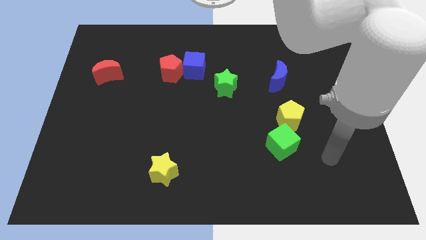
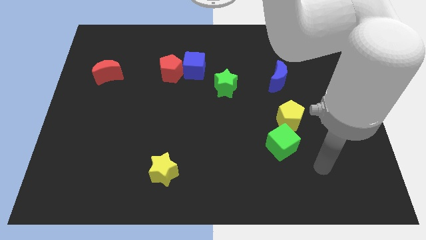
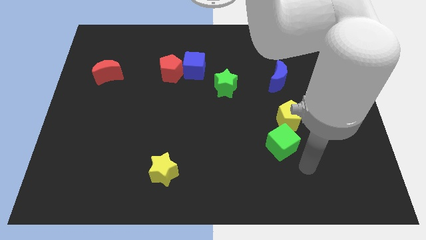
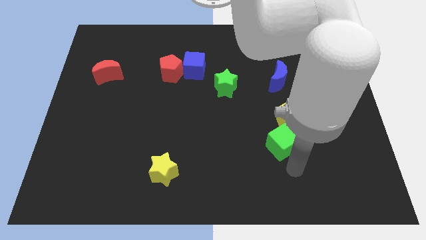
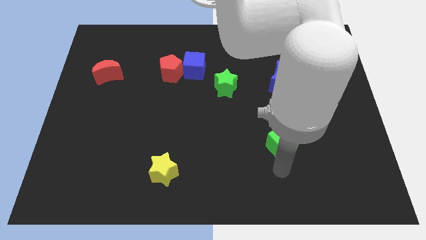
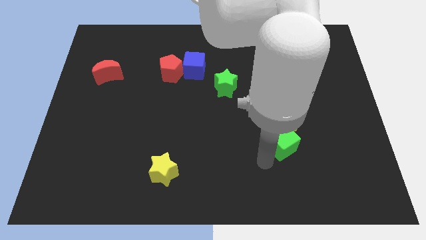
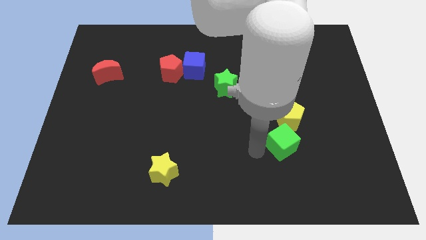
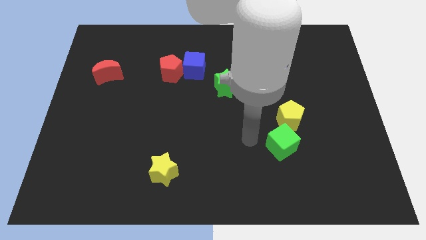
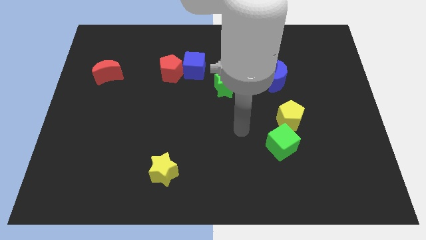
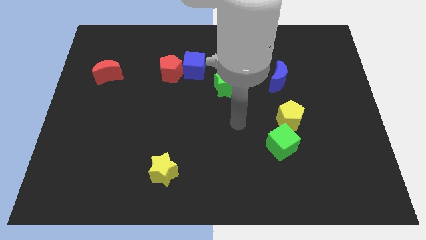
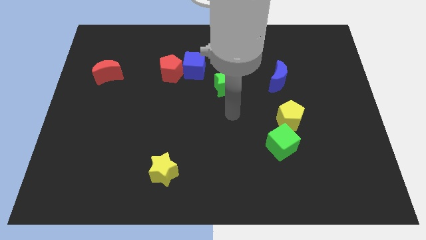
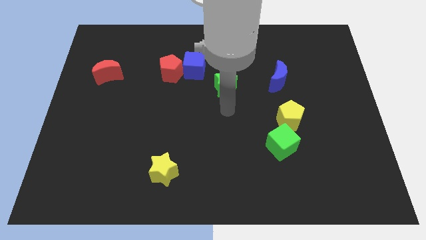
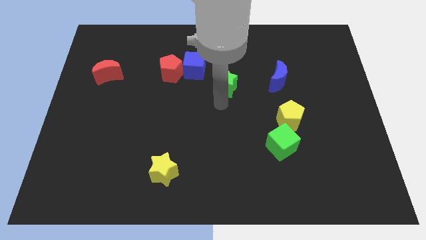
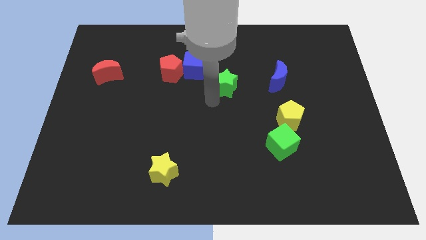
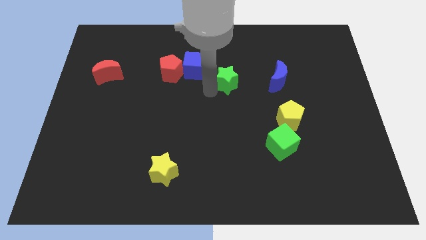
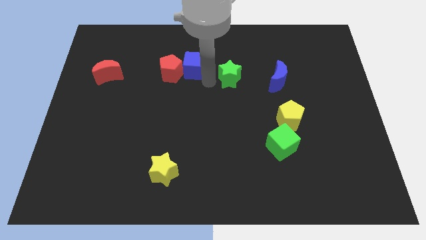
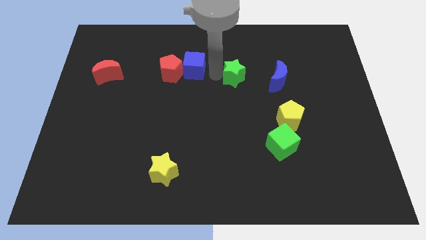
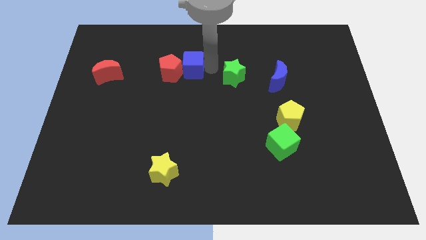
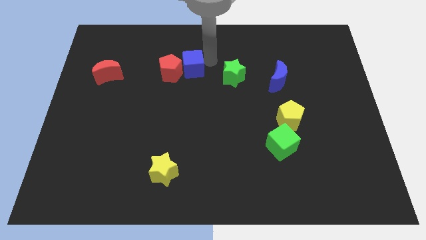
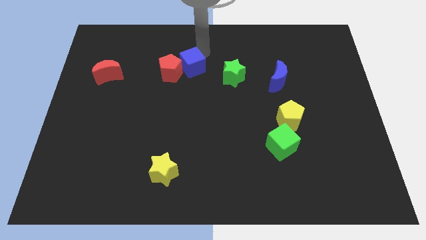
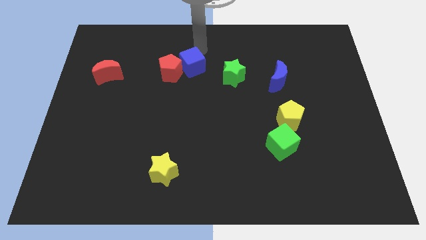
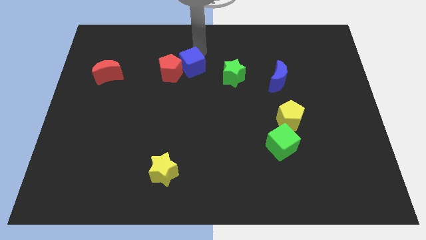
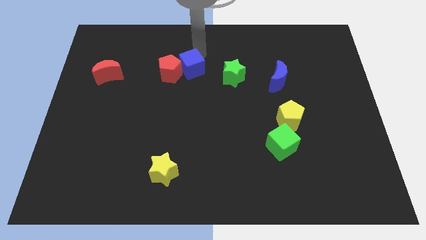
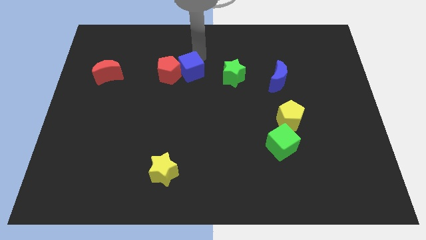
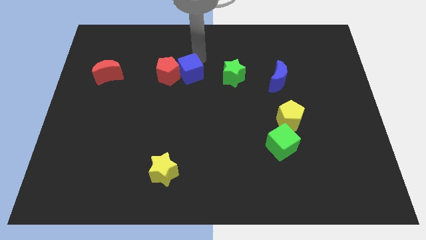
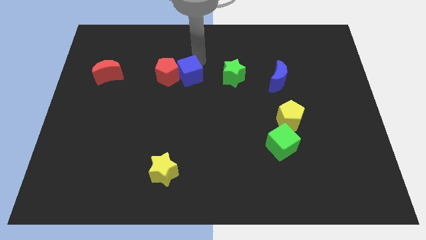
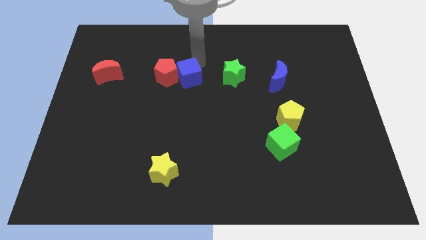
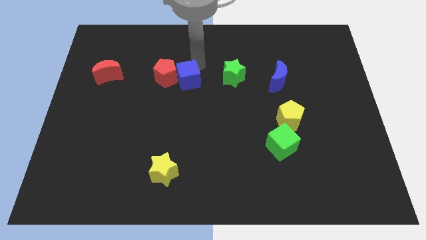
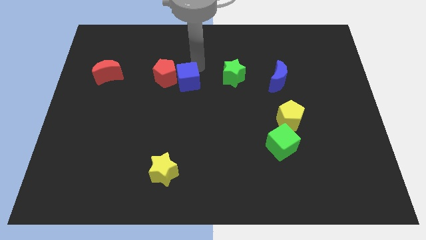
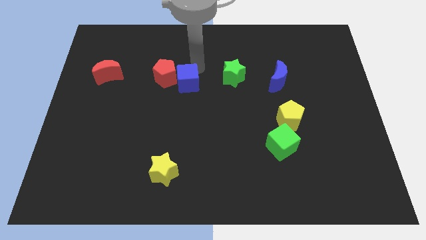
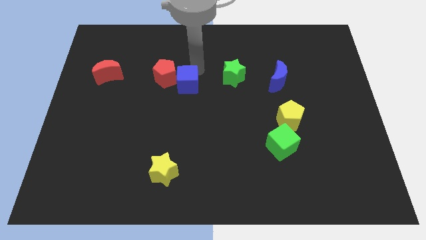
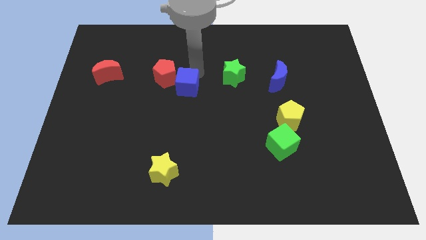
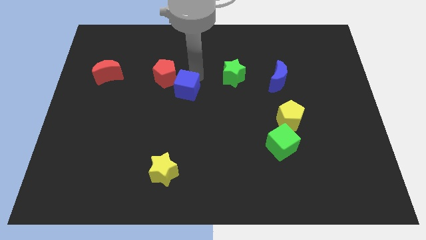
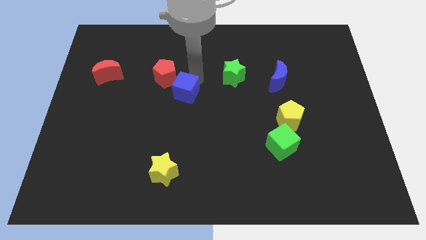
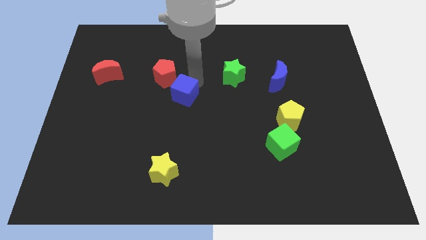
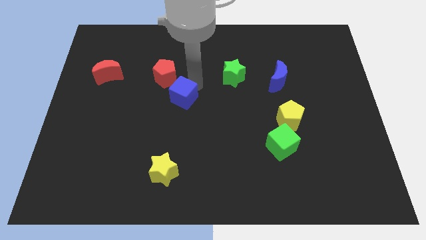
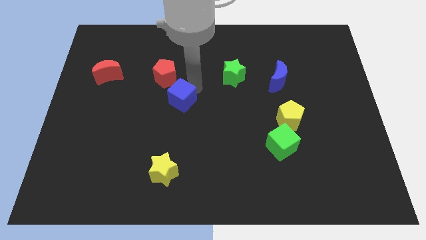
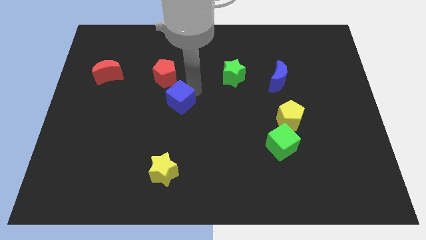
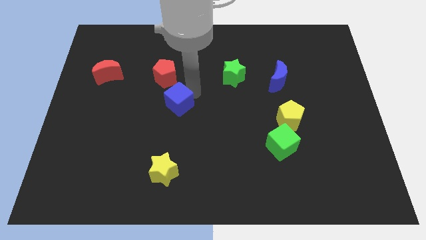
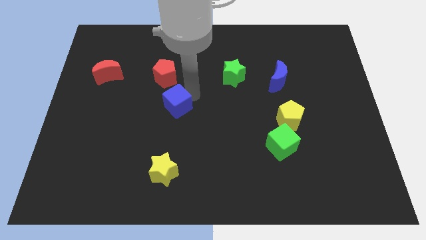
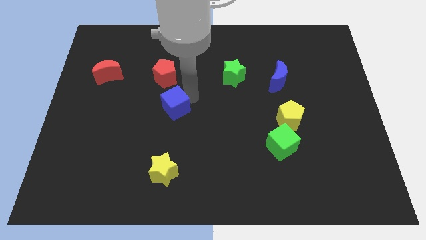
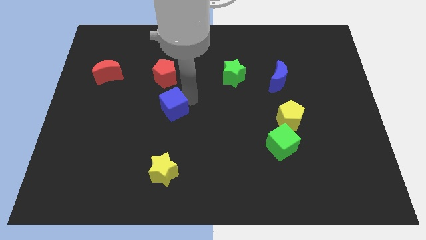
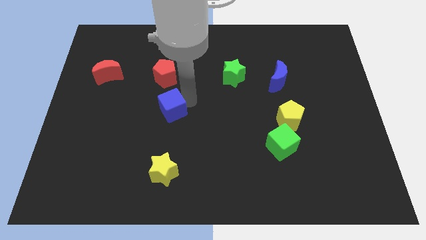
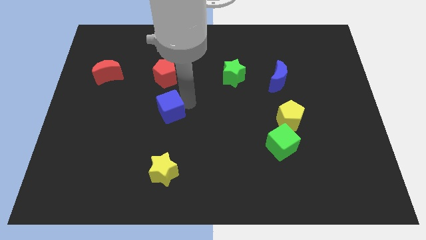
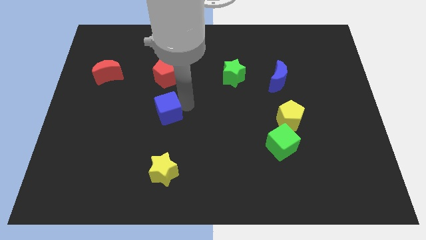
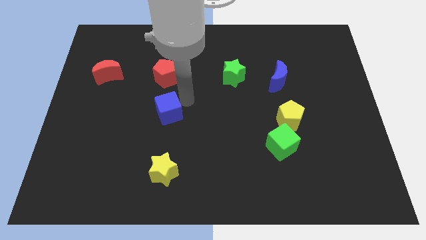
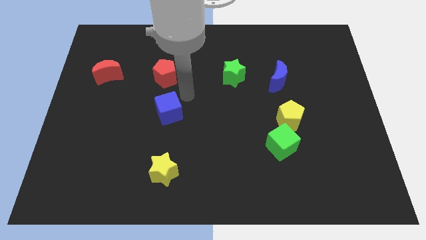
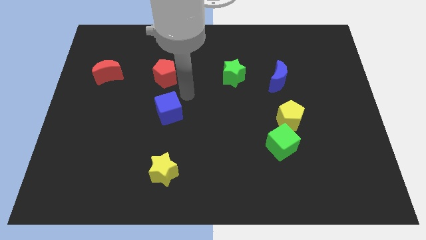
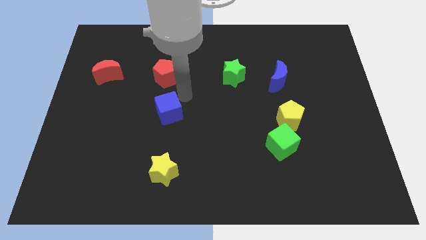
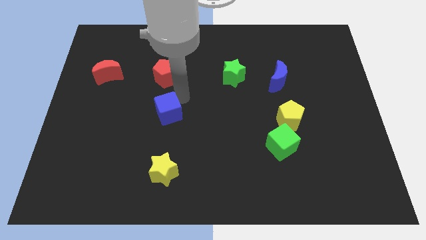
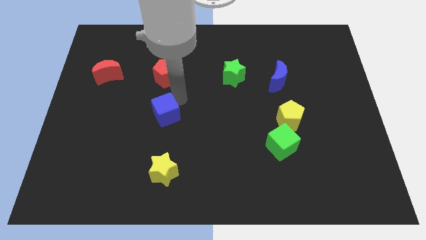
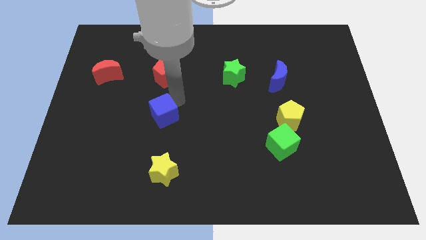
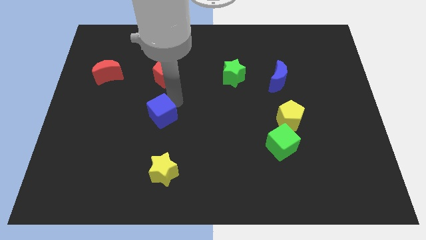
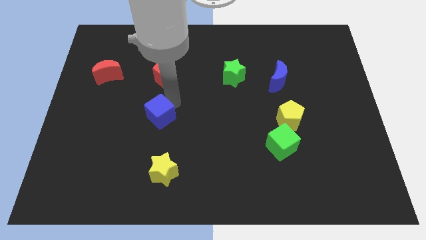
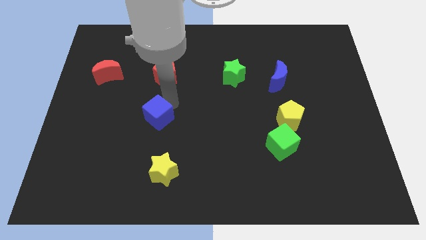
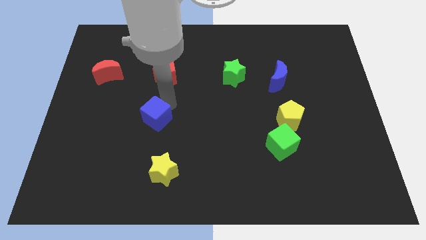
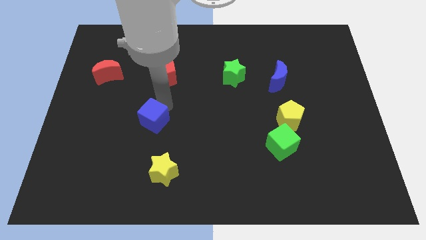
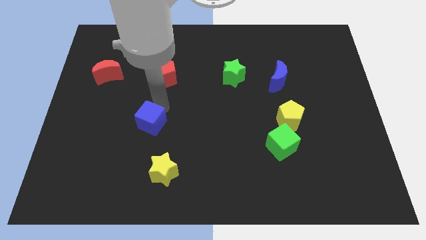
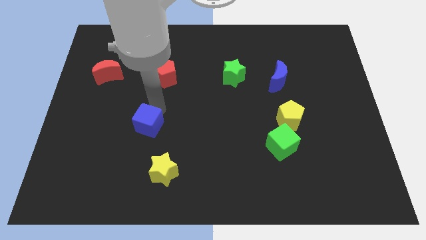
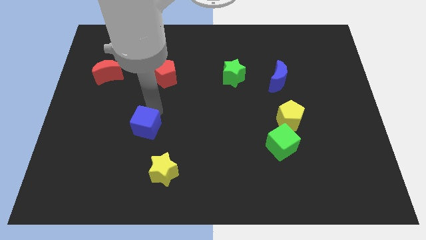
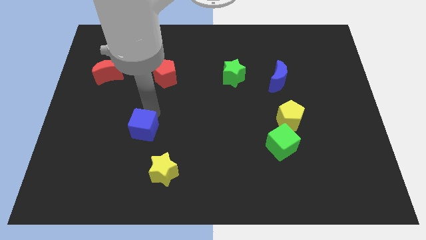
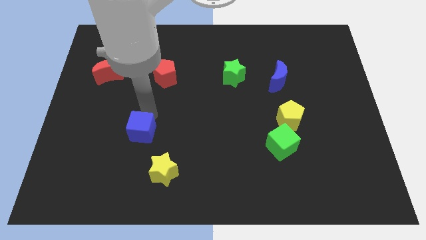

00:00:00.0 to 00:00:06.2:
slide the blue cube to the top left of the yellow star
